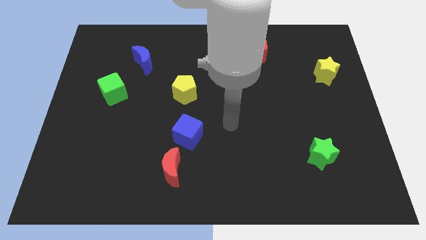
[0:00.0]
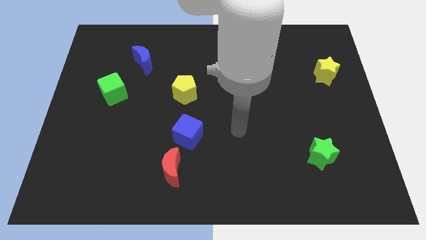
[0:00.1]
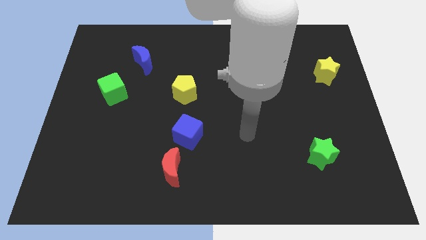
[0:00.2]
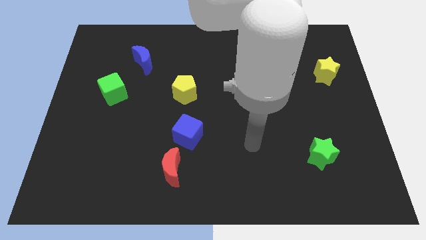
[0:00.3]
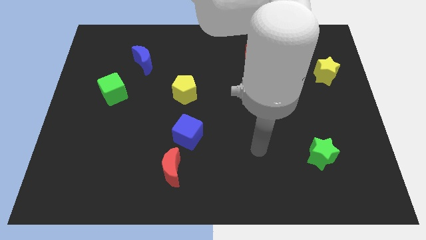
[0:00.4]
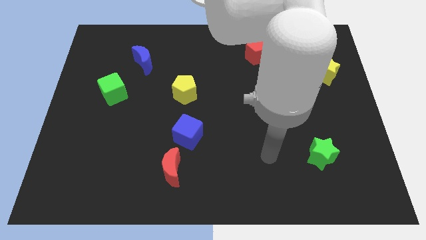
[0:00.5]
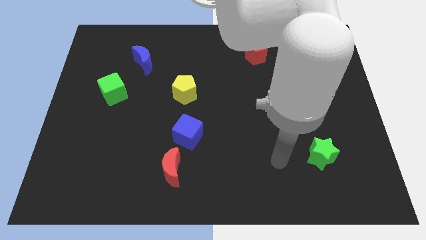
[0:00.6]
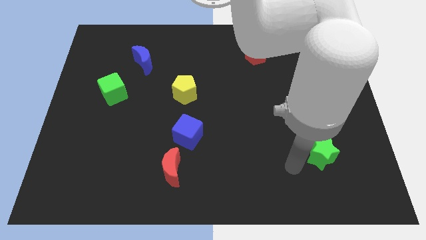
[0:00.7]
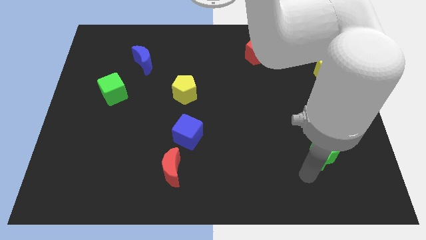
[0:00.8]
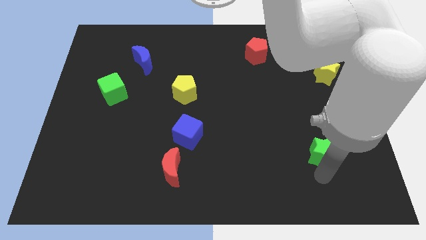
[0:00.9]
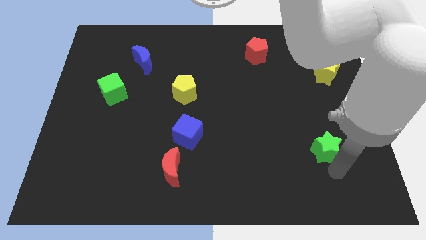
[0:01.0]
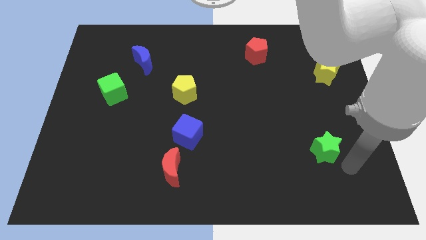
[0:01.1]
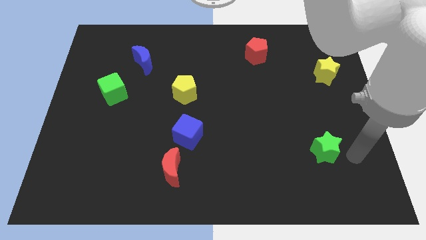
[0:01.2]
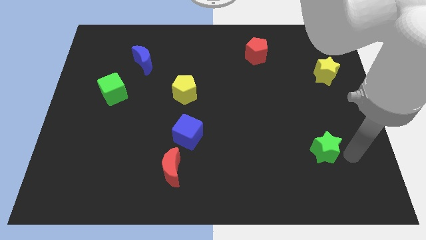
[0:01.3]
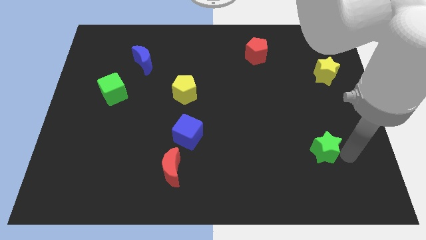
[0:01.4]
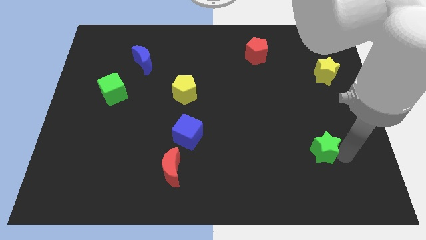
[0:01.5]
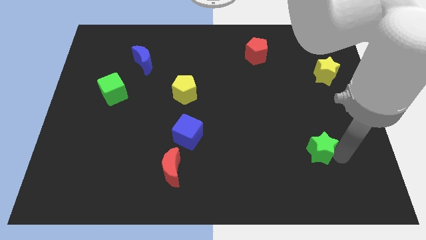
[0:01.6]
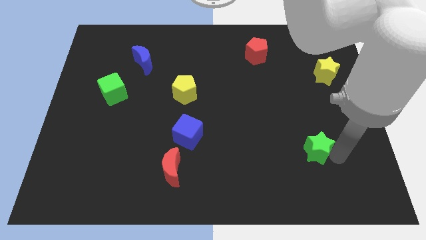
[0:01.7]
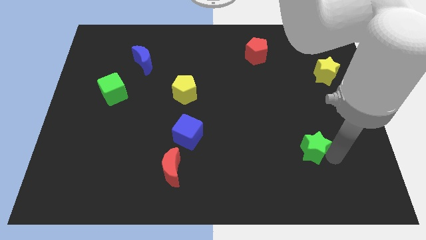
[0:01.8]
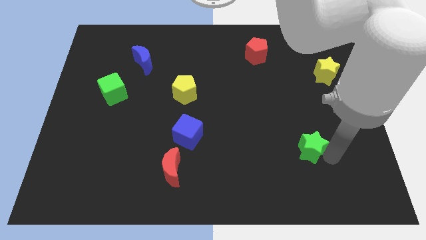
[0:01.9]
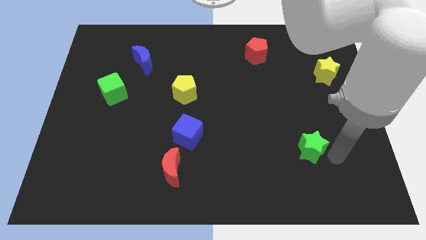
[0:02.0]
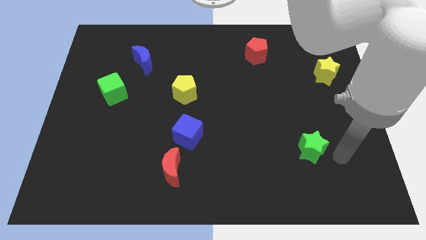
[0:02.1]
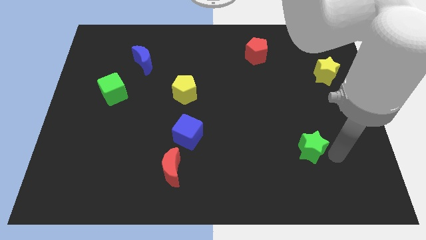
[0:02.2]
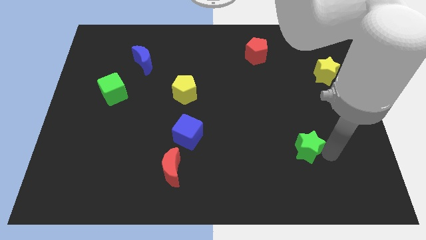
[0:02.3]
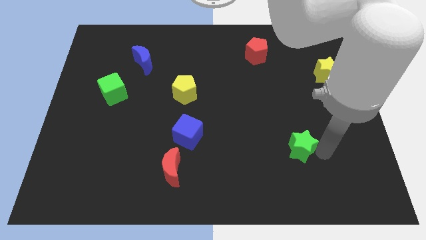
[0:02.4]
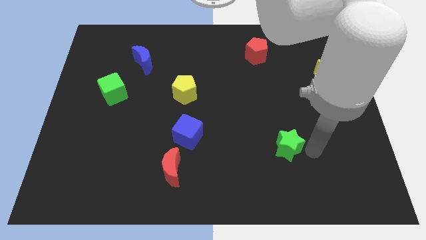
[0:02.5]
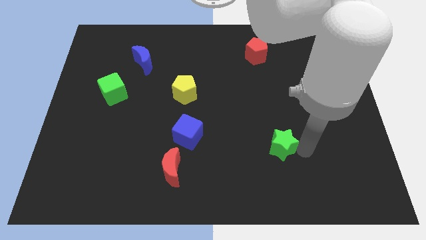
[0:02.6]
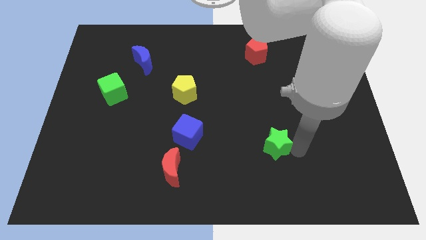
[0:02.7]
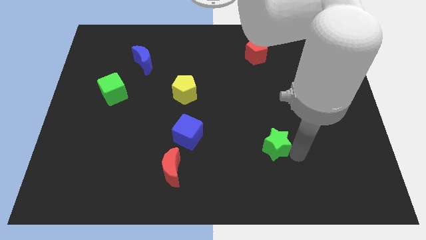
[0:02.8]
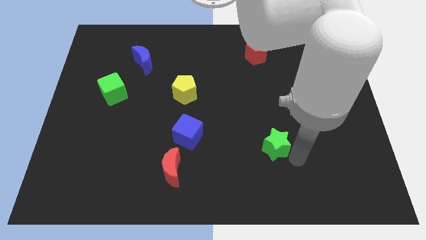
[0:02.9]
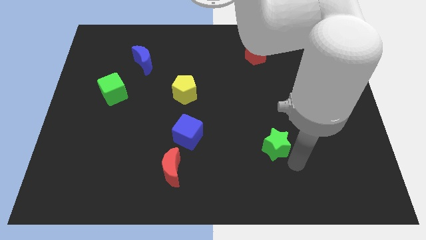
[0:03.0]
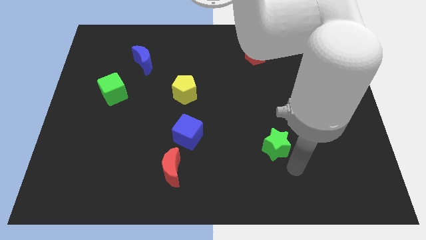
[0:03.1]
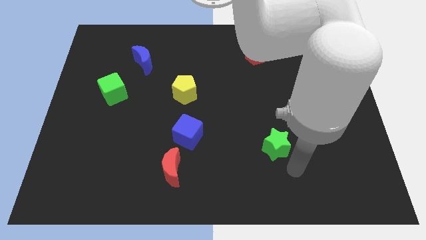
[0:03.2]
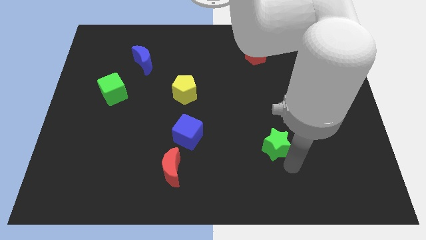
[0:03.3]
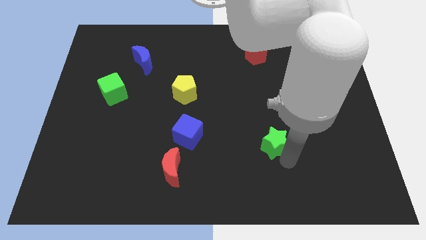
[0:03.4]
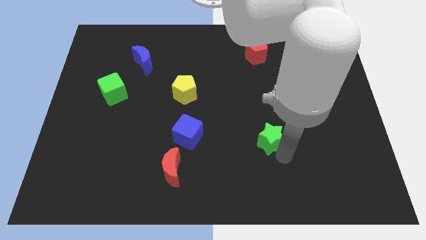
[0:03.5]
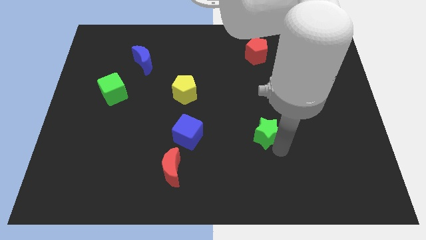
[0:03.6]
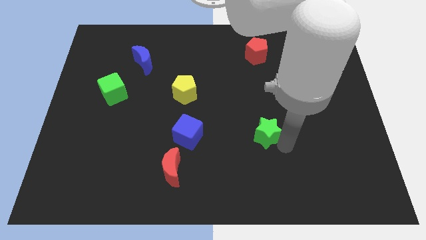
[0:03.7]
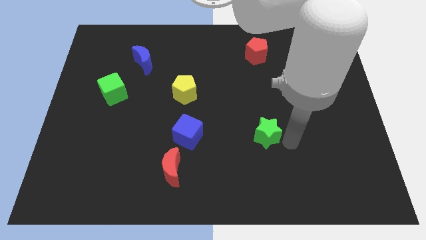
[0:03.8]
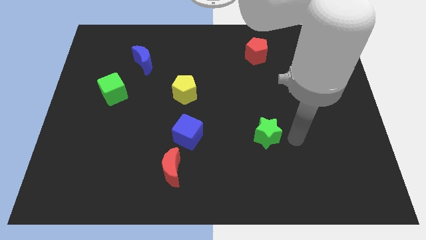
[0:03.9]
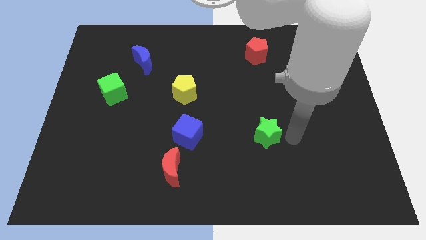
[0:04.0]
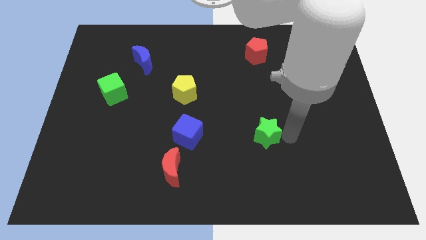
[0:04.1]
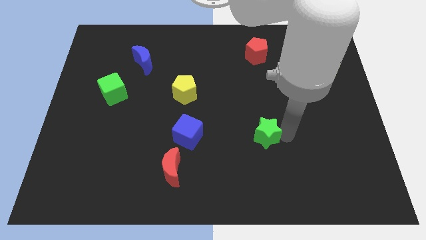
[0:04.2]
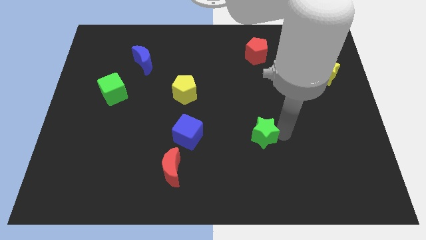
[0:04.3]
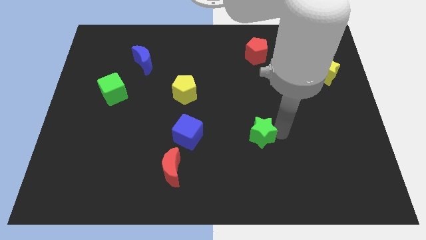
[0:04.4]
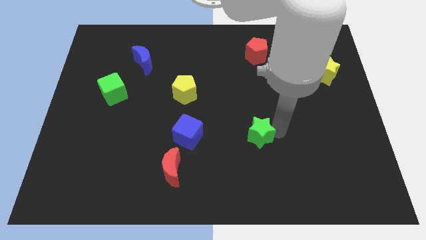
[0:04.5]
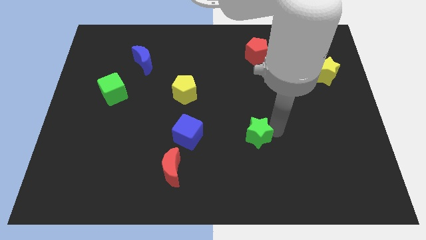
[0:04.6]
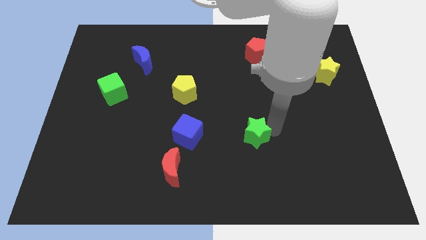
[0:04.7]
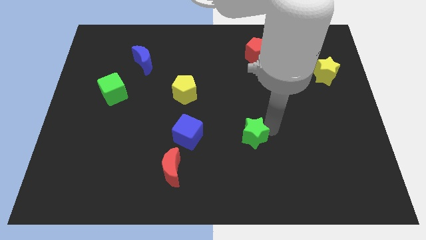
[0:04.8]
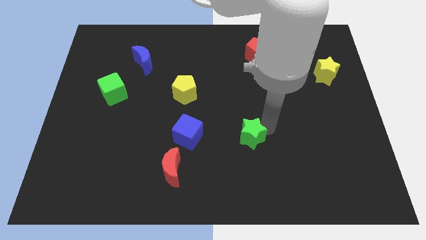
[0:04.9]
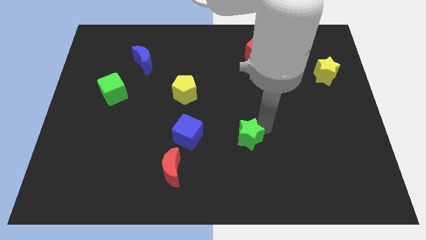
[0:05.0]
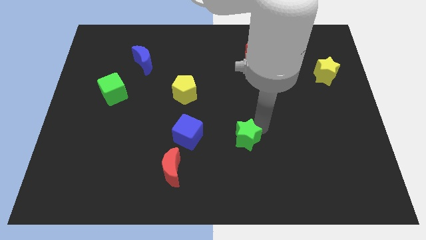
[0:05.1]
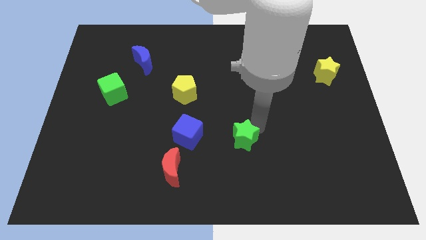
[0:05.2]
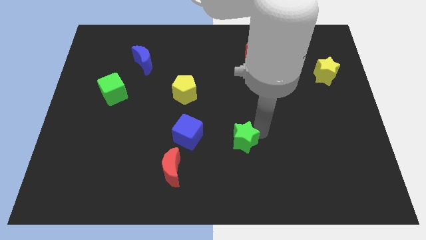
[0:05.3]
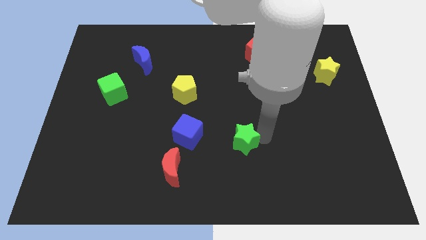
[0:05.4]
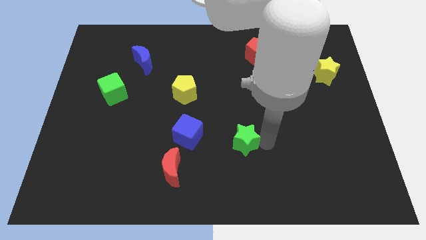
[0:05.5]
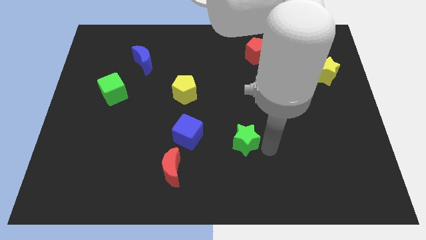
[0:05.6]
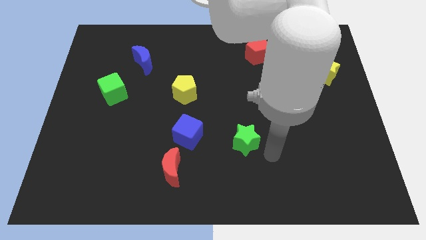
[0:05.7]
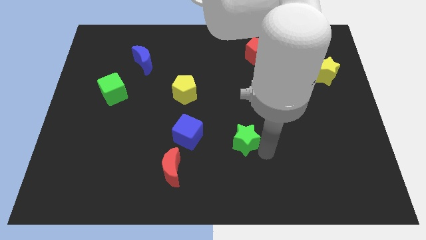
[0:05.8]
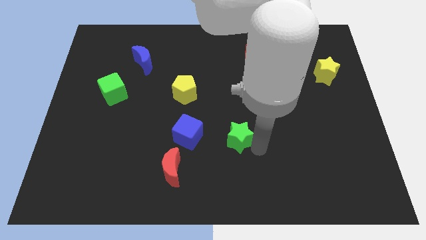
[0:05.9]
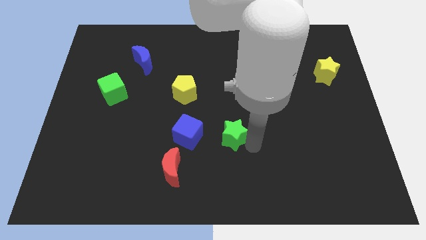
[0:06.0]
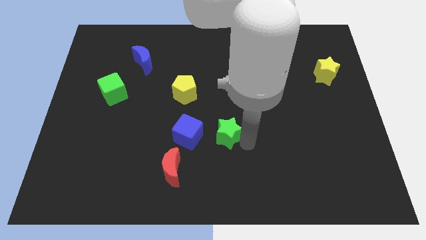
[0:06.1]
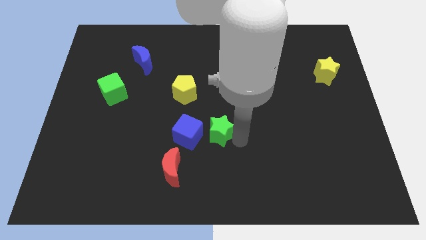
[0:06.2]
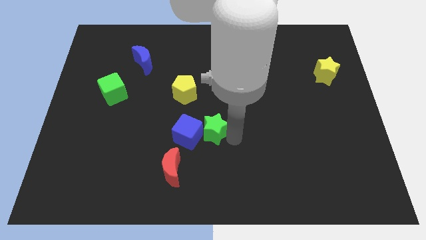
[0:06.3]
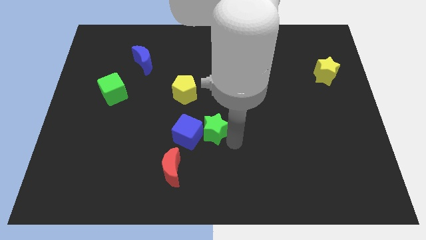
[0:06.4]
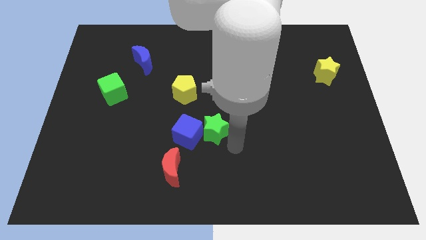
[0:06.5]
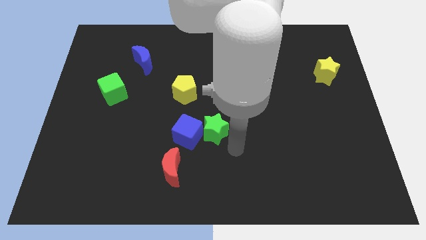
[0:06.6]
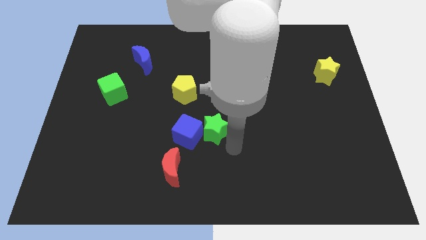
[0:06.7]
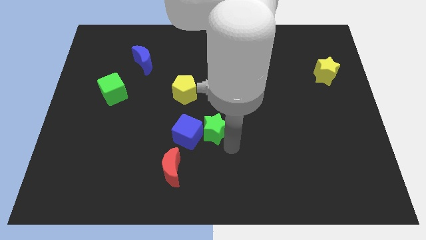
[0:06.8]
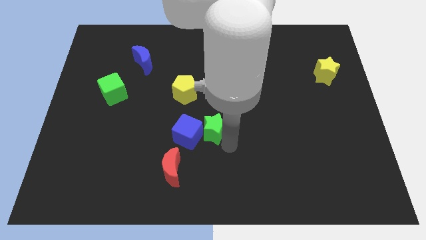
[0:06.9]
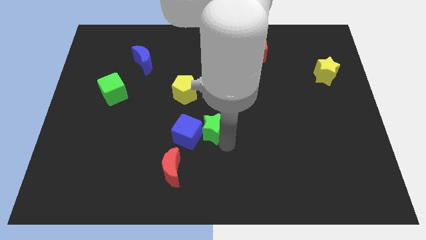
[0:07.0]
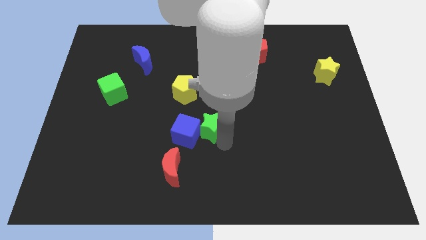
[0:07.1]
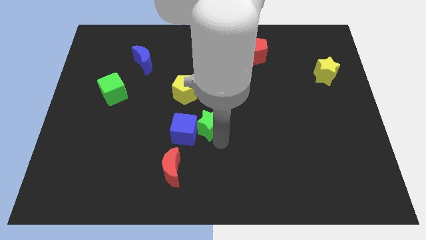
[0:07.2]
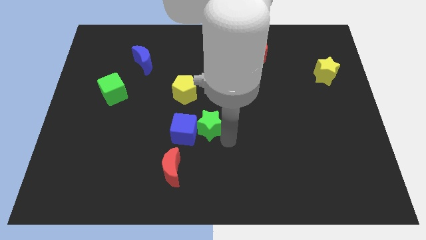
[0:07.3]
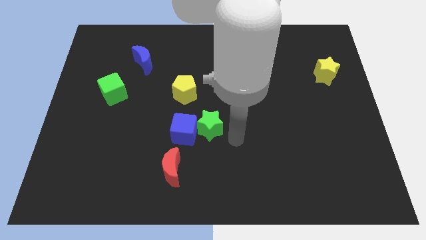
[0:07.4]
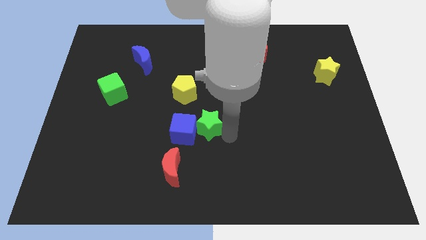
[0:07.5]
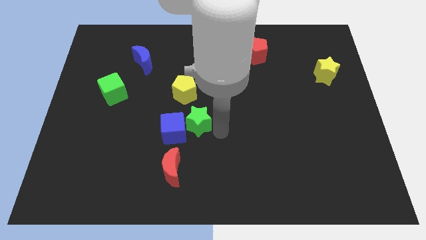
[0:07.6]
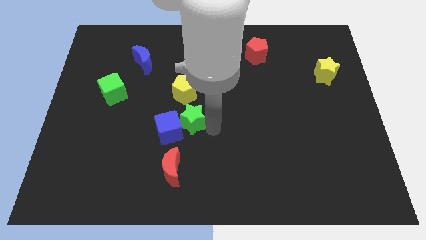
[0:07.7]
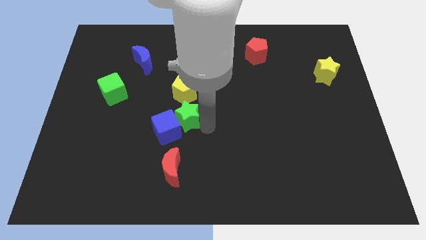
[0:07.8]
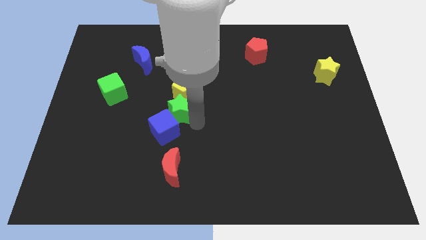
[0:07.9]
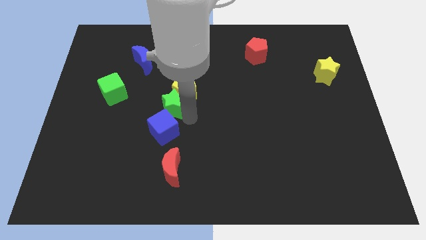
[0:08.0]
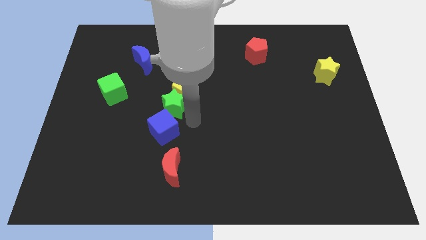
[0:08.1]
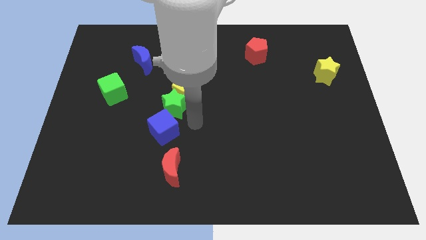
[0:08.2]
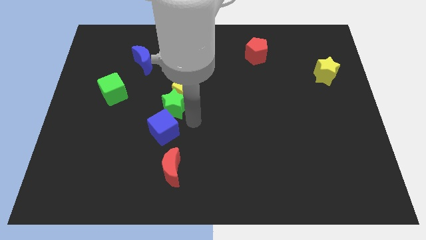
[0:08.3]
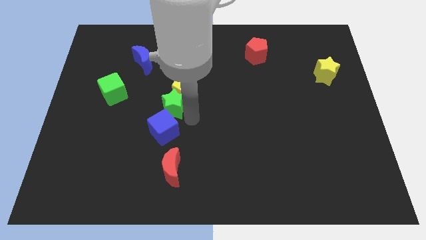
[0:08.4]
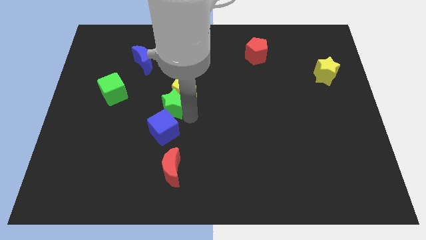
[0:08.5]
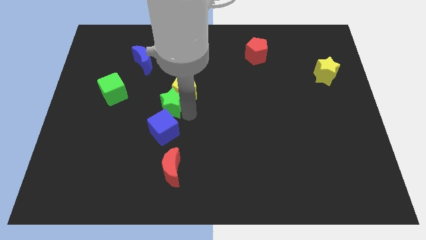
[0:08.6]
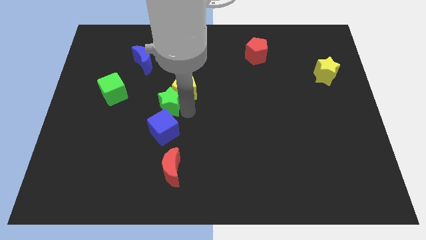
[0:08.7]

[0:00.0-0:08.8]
push the green star right of the green cube
